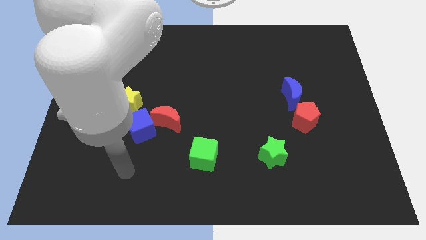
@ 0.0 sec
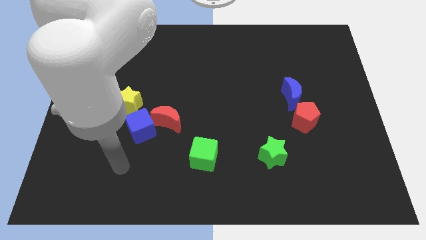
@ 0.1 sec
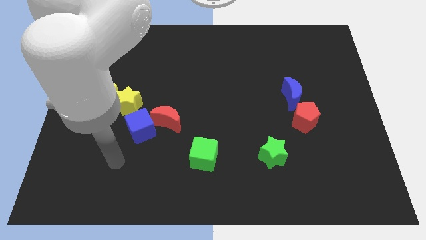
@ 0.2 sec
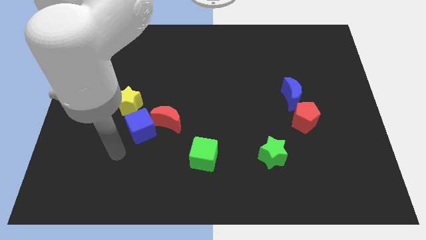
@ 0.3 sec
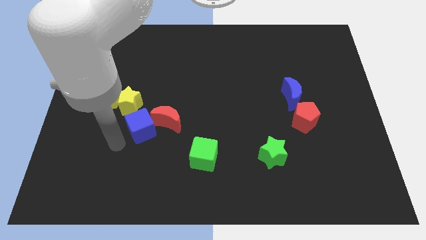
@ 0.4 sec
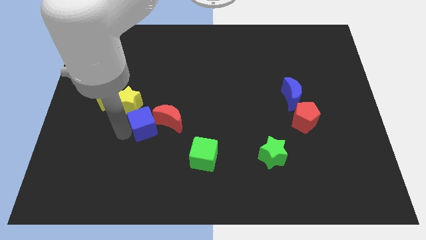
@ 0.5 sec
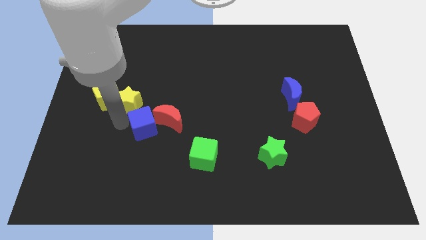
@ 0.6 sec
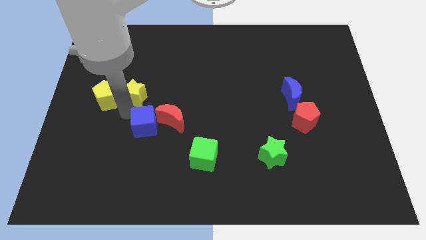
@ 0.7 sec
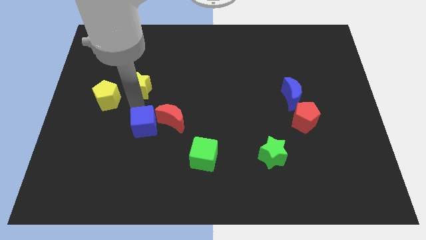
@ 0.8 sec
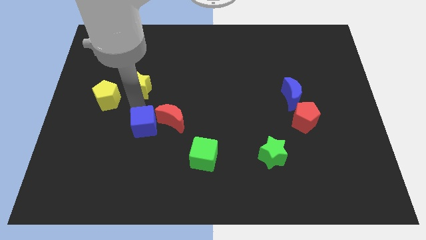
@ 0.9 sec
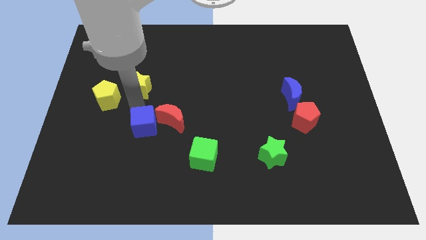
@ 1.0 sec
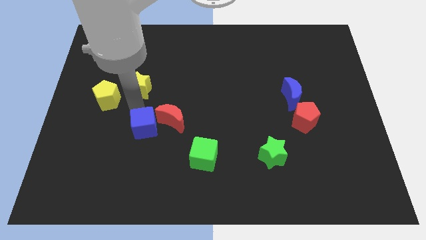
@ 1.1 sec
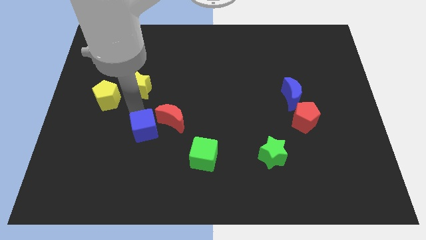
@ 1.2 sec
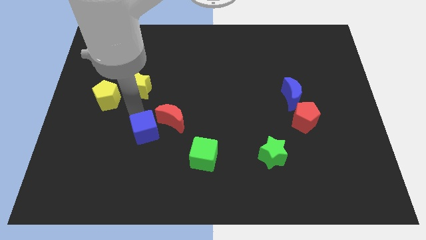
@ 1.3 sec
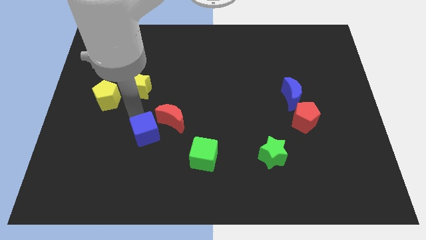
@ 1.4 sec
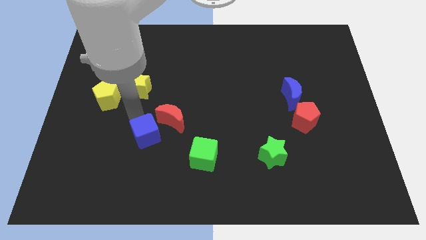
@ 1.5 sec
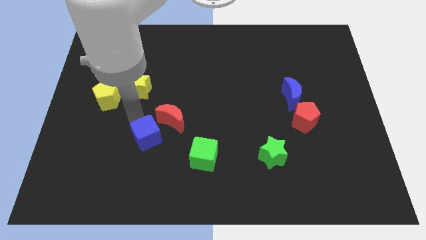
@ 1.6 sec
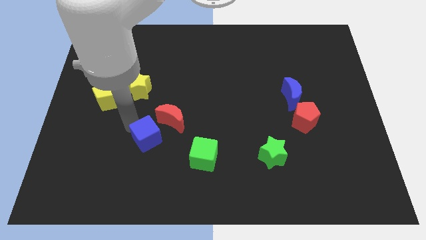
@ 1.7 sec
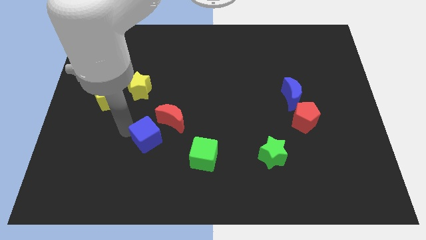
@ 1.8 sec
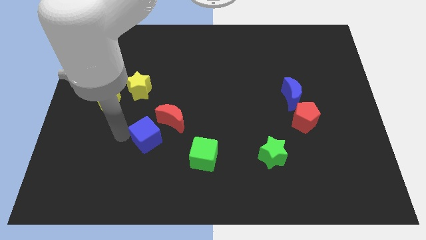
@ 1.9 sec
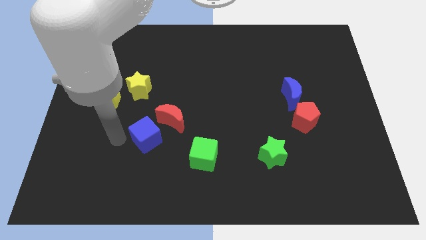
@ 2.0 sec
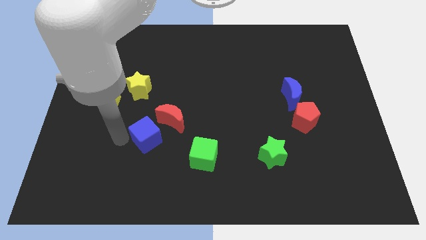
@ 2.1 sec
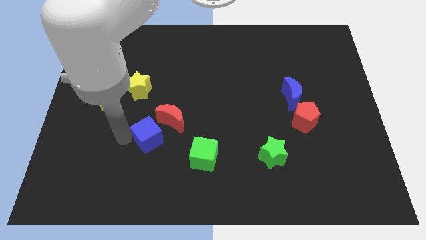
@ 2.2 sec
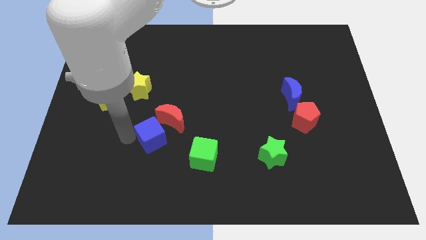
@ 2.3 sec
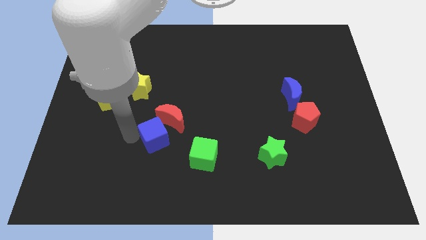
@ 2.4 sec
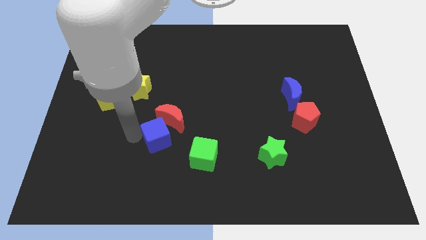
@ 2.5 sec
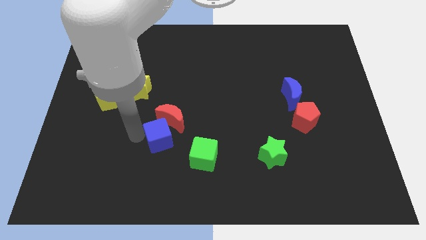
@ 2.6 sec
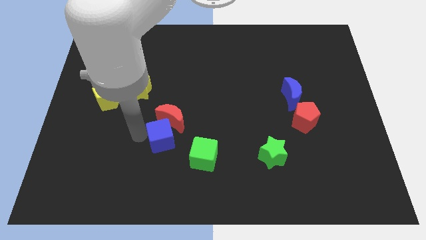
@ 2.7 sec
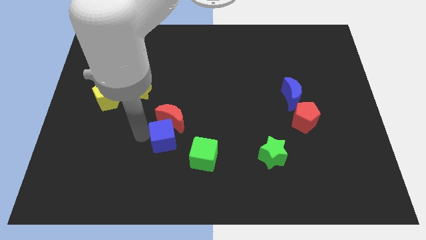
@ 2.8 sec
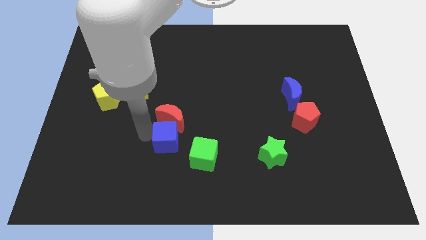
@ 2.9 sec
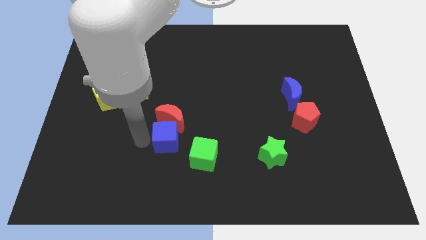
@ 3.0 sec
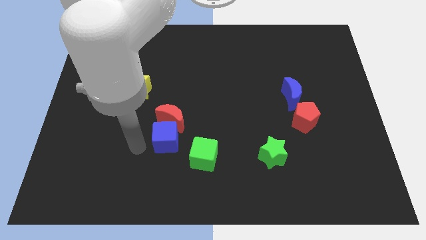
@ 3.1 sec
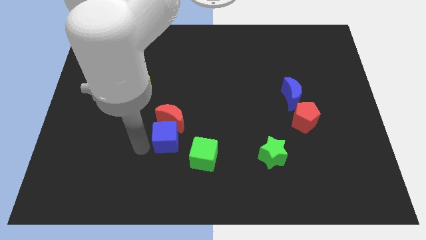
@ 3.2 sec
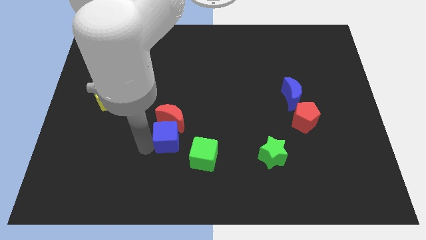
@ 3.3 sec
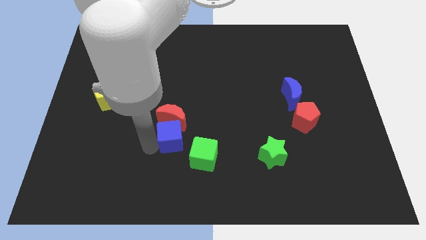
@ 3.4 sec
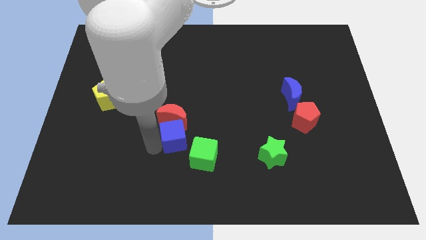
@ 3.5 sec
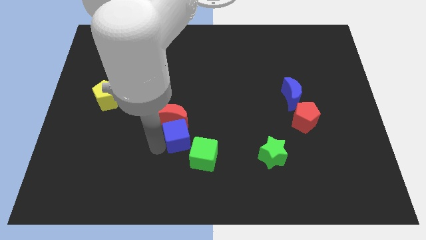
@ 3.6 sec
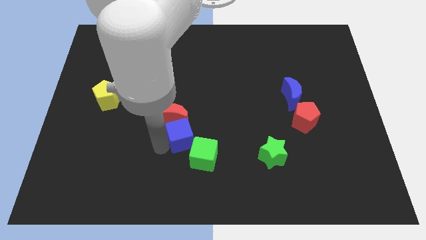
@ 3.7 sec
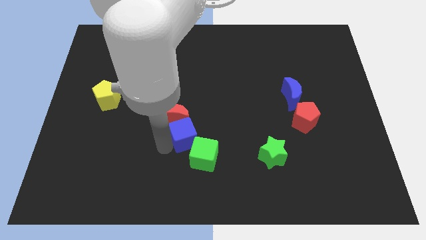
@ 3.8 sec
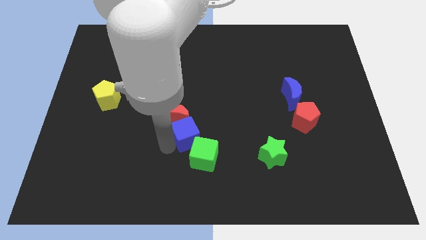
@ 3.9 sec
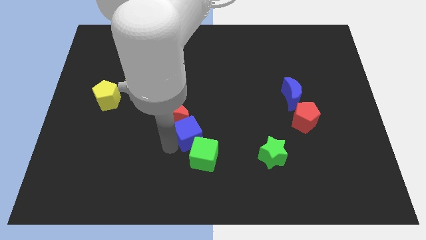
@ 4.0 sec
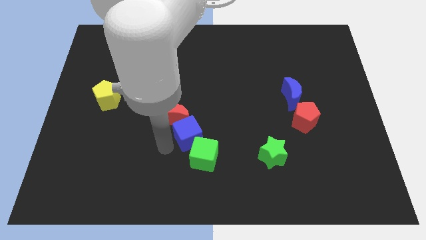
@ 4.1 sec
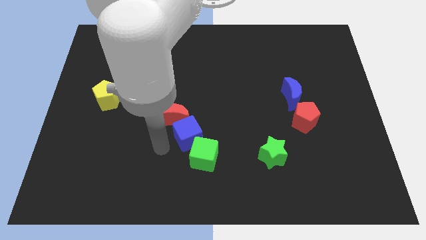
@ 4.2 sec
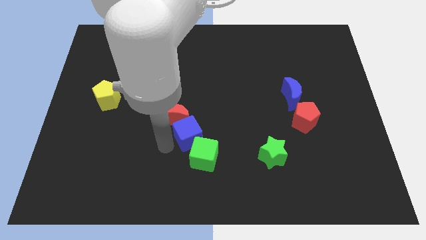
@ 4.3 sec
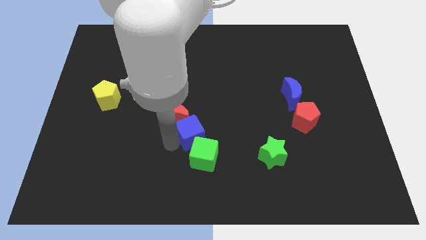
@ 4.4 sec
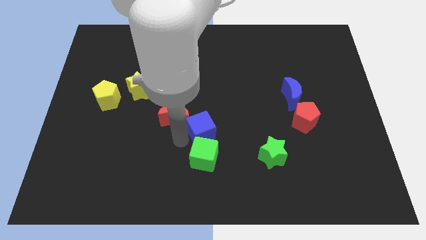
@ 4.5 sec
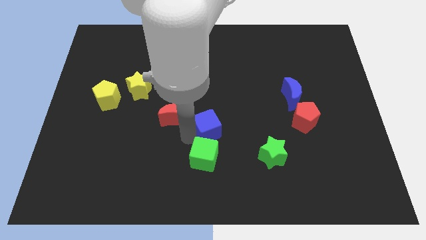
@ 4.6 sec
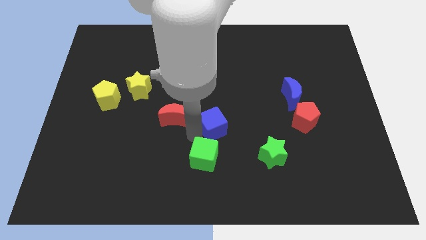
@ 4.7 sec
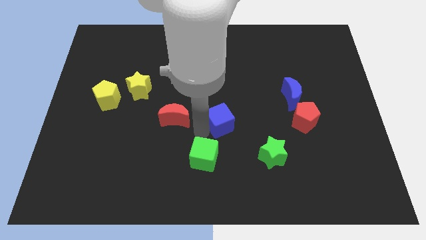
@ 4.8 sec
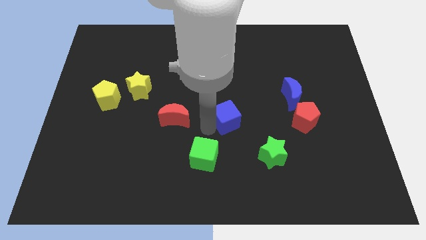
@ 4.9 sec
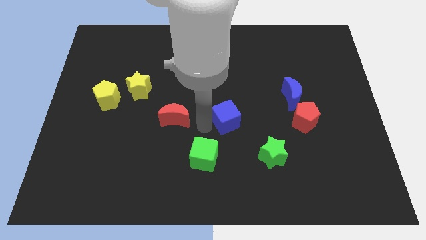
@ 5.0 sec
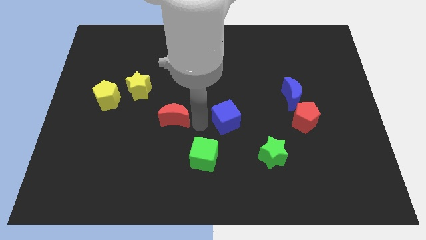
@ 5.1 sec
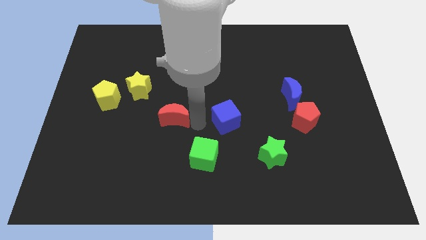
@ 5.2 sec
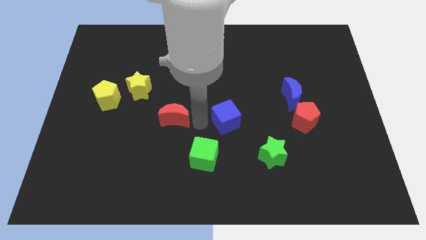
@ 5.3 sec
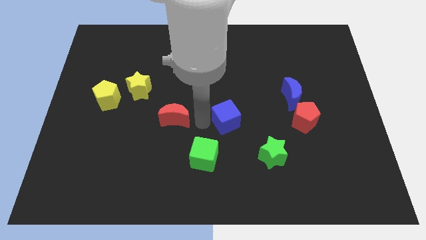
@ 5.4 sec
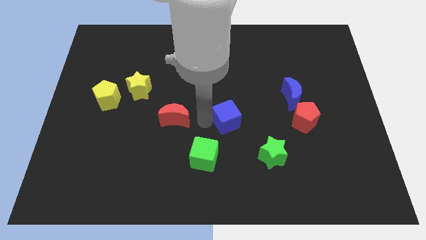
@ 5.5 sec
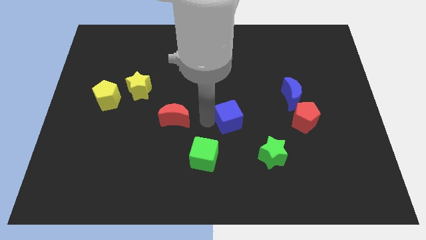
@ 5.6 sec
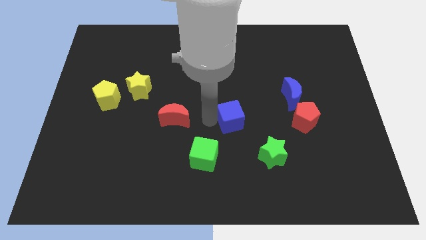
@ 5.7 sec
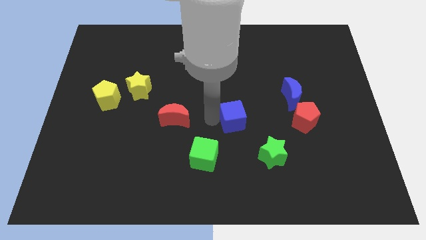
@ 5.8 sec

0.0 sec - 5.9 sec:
move the blue cube to the left of the red pentagon
